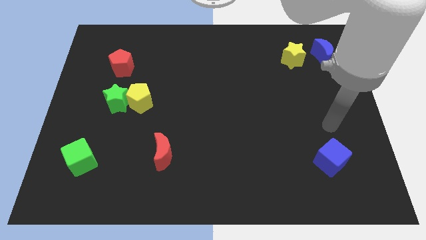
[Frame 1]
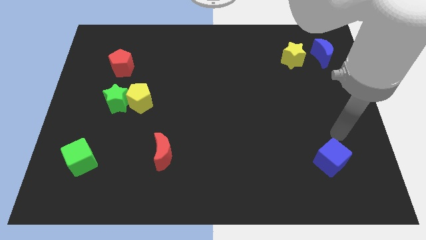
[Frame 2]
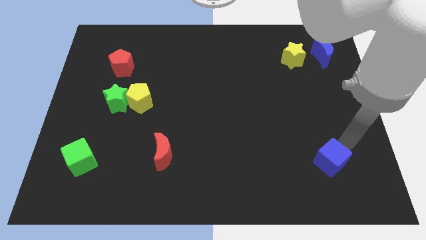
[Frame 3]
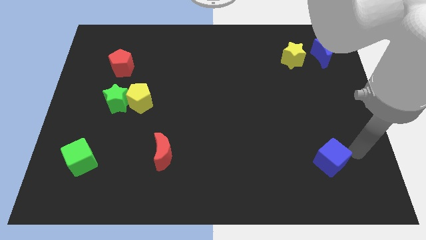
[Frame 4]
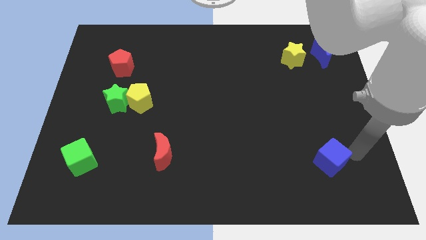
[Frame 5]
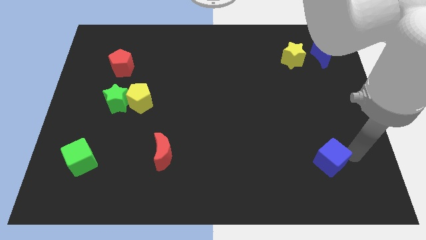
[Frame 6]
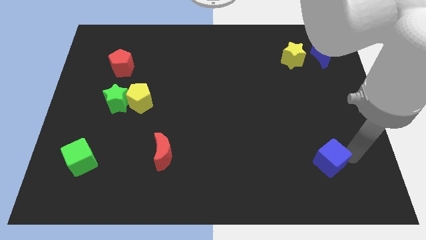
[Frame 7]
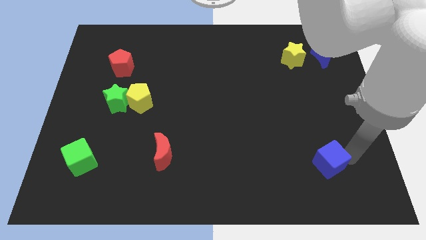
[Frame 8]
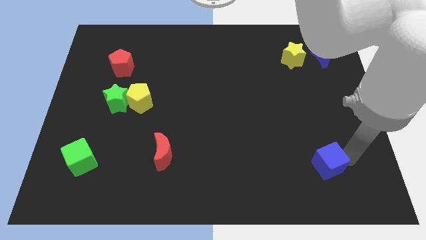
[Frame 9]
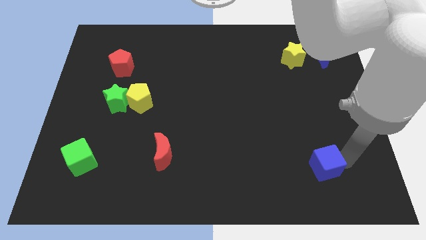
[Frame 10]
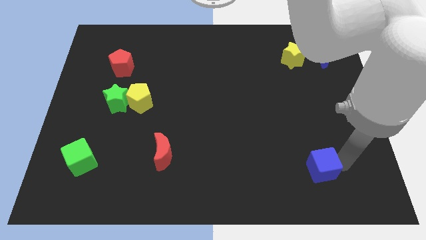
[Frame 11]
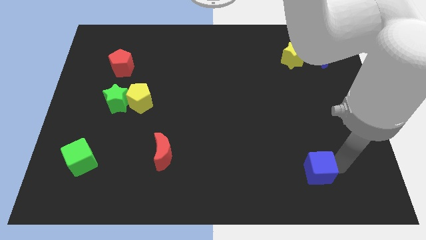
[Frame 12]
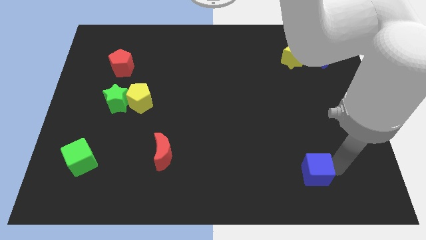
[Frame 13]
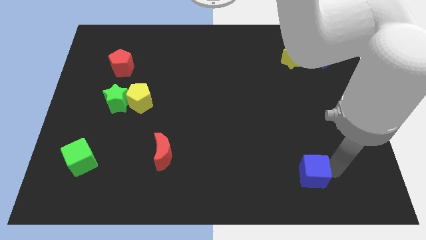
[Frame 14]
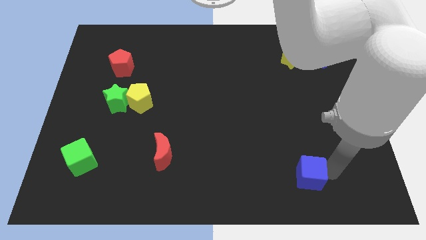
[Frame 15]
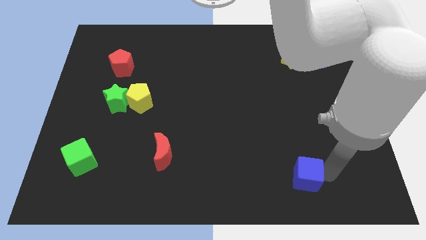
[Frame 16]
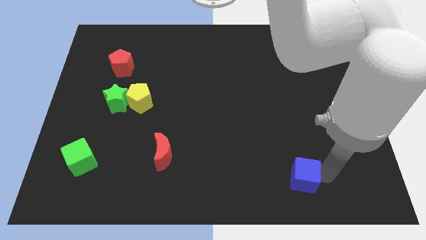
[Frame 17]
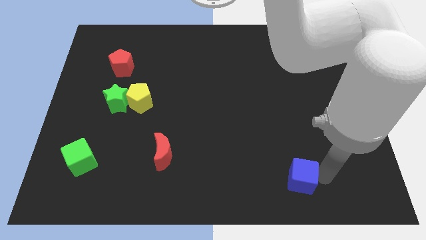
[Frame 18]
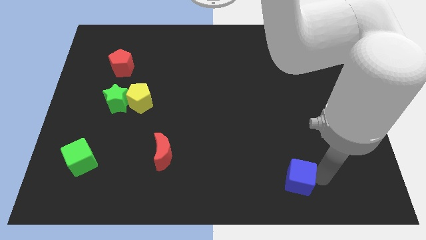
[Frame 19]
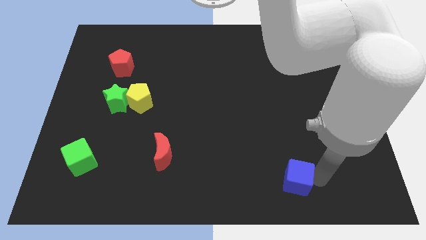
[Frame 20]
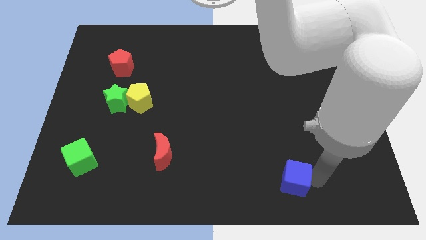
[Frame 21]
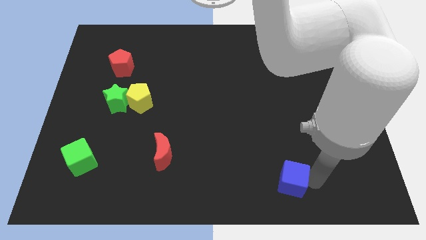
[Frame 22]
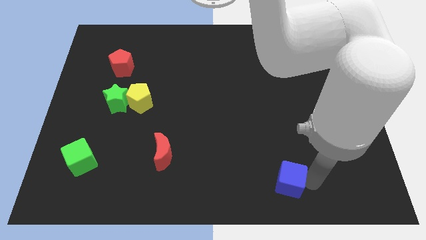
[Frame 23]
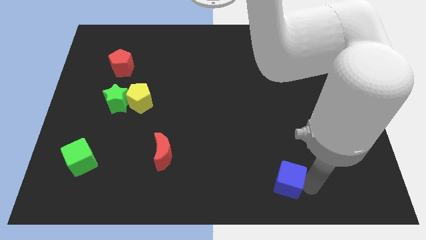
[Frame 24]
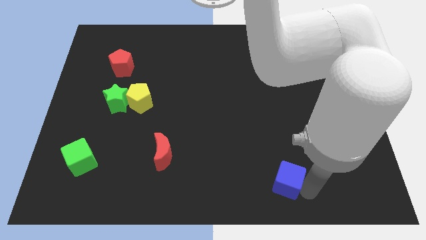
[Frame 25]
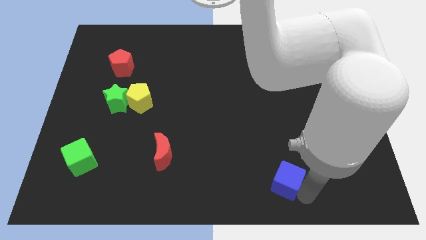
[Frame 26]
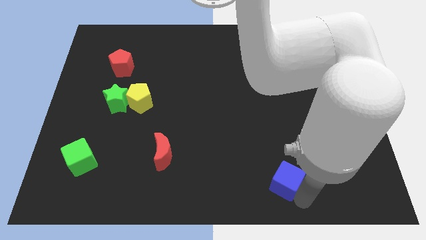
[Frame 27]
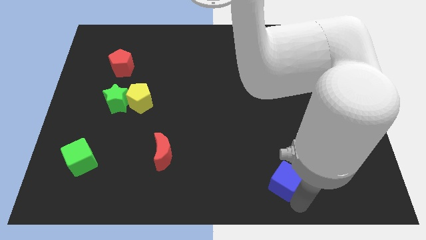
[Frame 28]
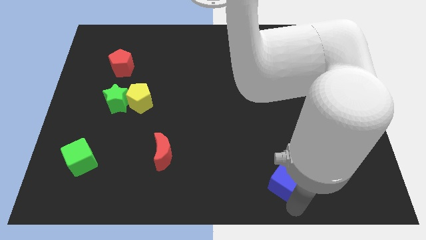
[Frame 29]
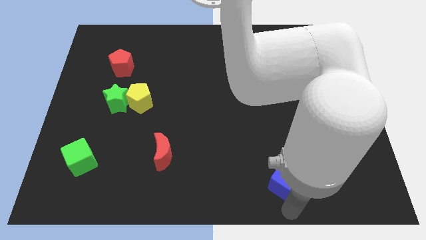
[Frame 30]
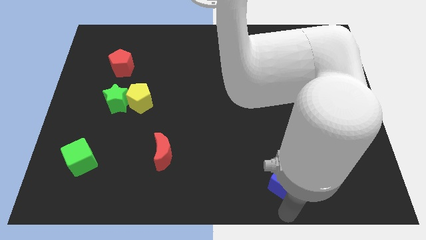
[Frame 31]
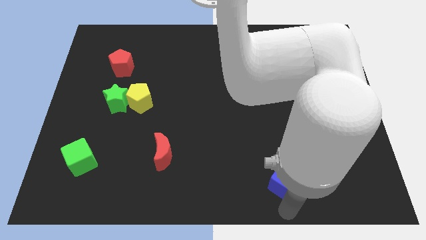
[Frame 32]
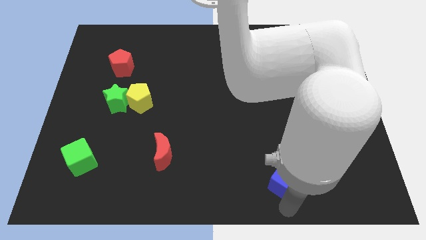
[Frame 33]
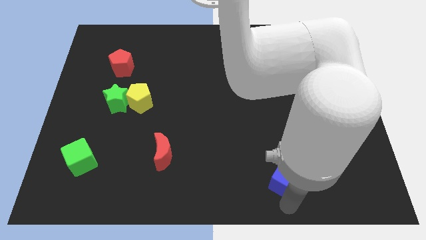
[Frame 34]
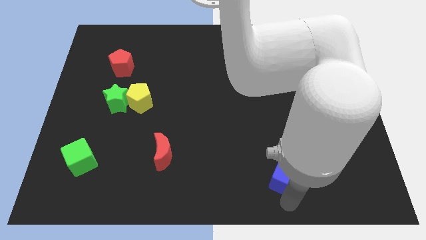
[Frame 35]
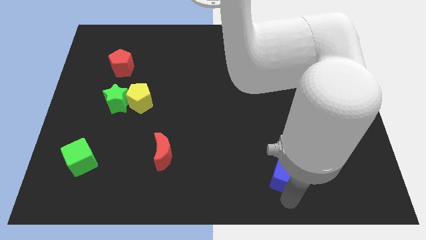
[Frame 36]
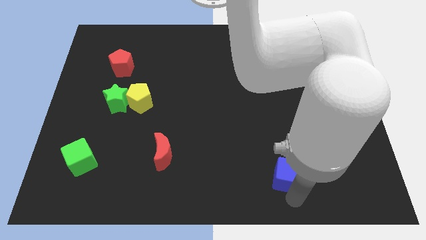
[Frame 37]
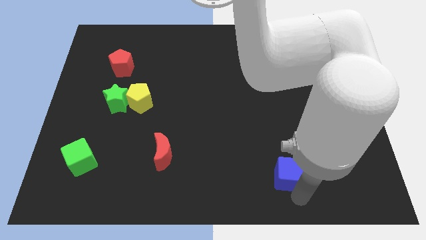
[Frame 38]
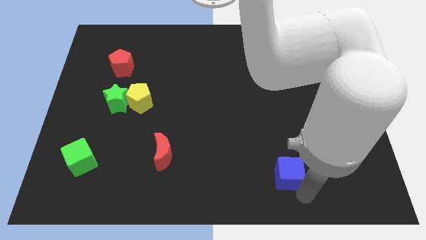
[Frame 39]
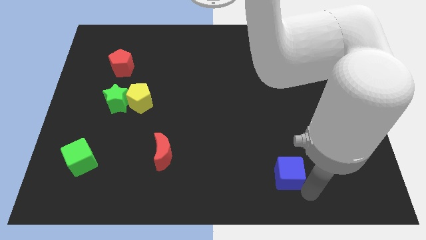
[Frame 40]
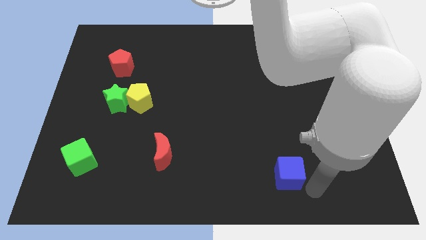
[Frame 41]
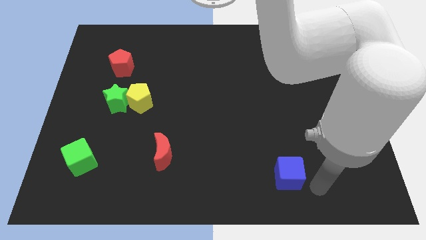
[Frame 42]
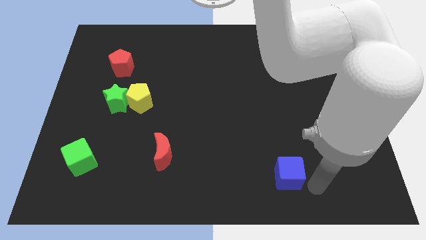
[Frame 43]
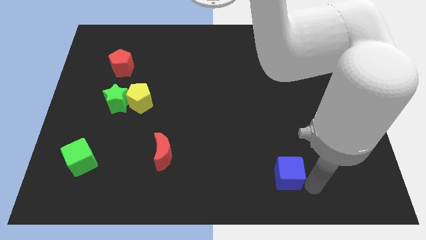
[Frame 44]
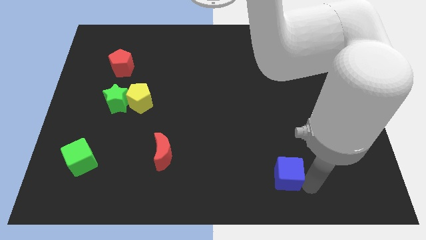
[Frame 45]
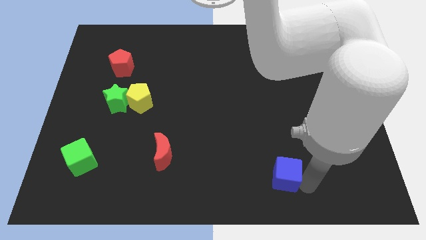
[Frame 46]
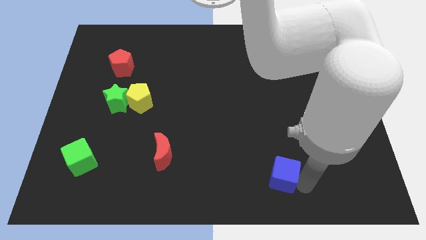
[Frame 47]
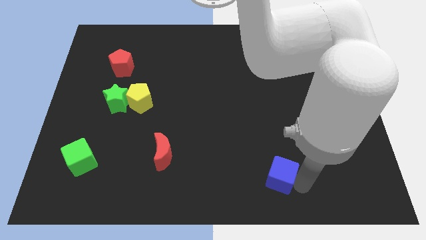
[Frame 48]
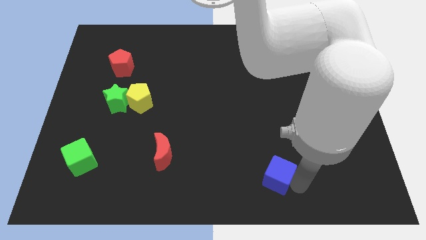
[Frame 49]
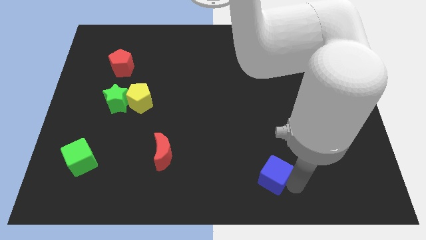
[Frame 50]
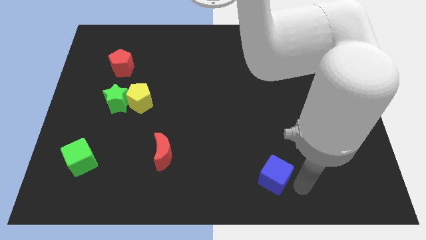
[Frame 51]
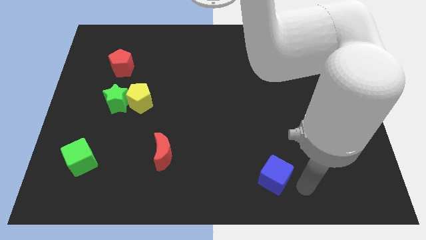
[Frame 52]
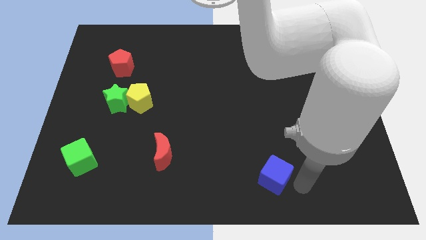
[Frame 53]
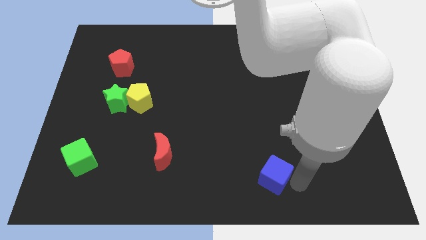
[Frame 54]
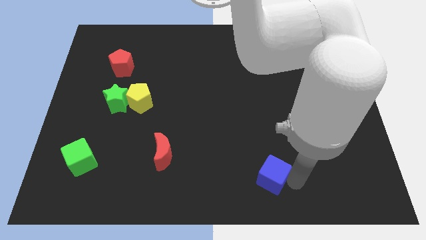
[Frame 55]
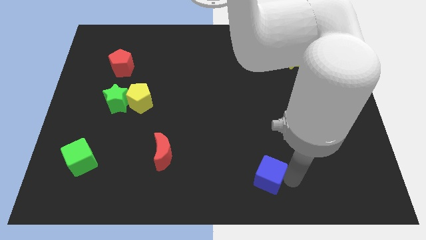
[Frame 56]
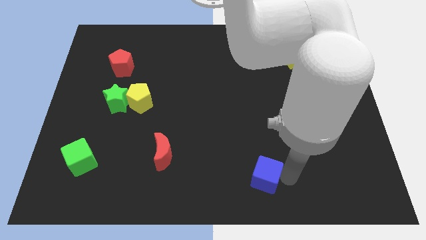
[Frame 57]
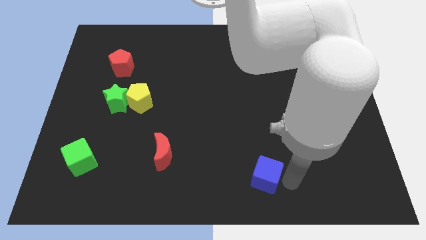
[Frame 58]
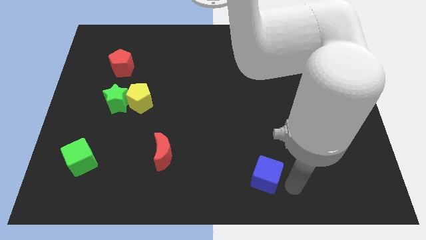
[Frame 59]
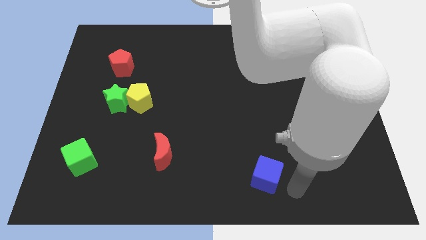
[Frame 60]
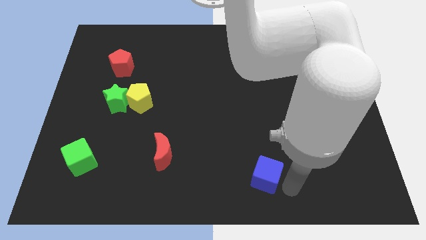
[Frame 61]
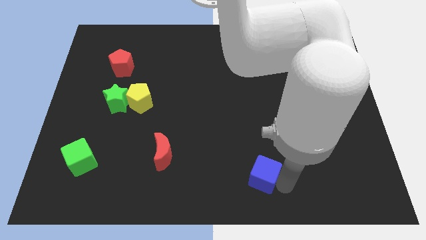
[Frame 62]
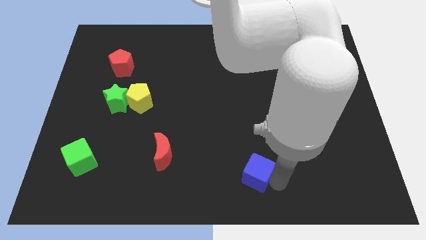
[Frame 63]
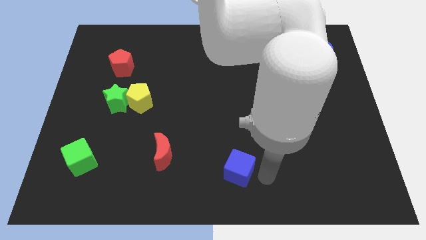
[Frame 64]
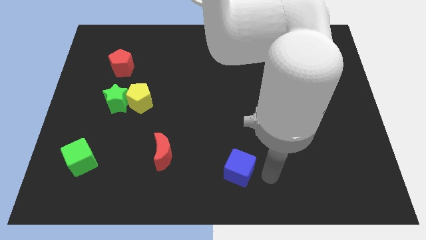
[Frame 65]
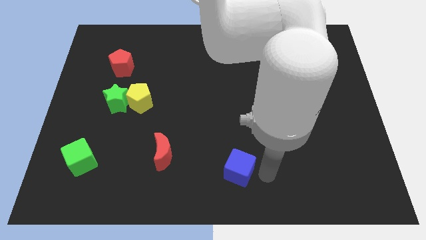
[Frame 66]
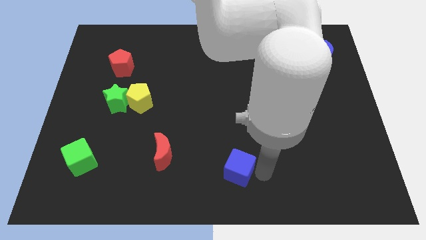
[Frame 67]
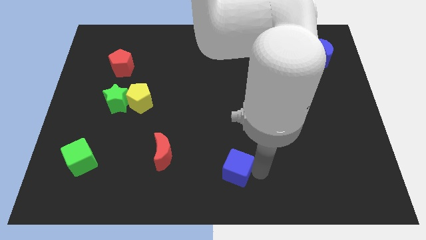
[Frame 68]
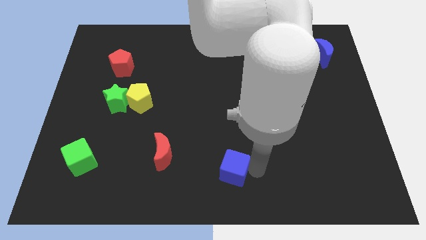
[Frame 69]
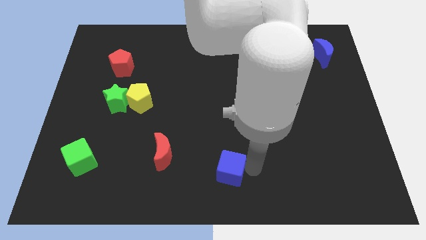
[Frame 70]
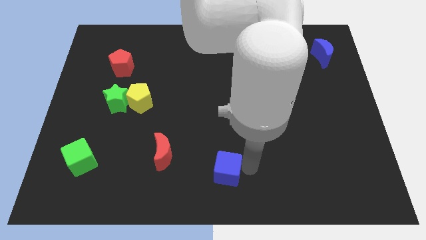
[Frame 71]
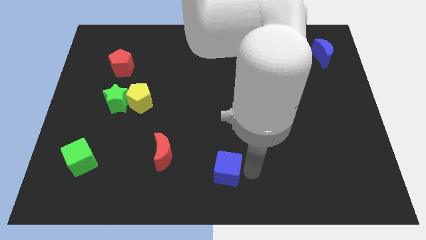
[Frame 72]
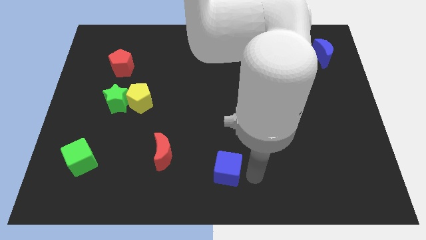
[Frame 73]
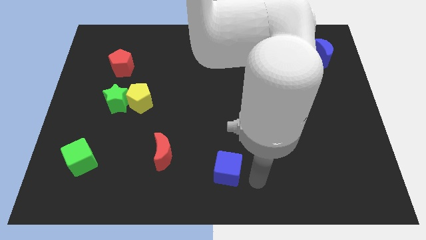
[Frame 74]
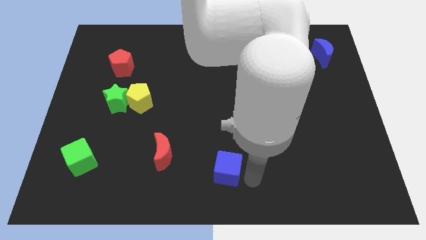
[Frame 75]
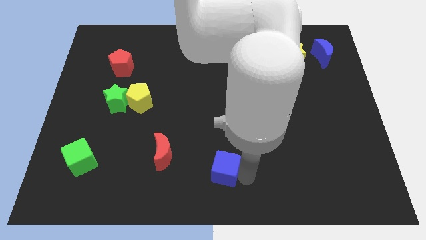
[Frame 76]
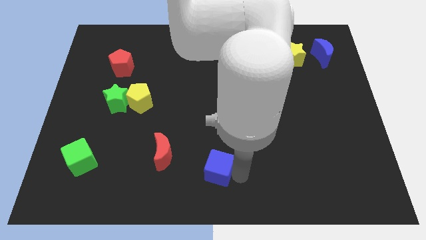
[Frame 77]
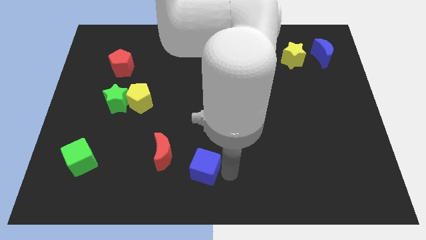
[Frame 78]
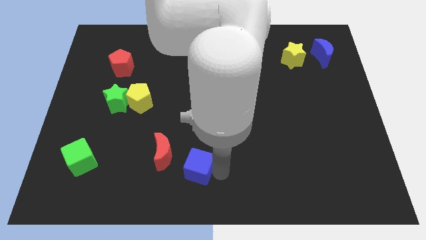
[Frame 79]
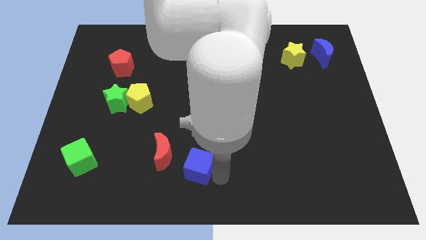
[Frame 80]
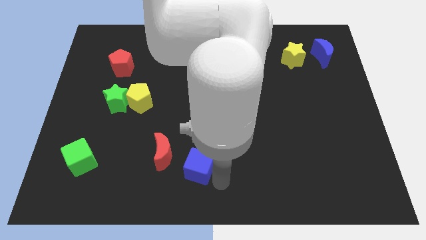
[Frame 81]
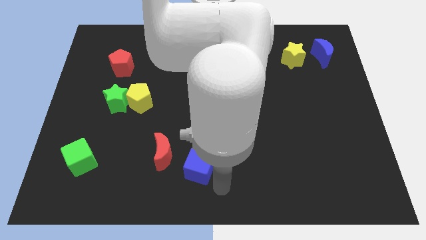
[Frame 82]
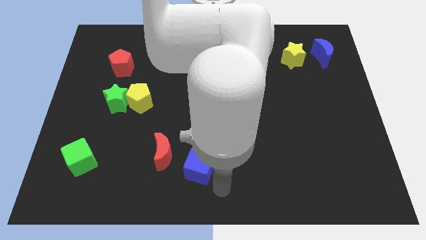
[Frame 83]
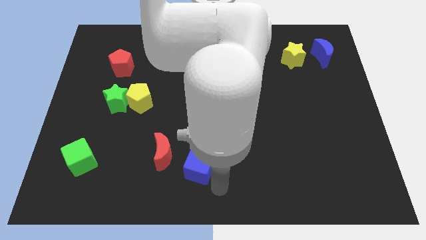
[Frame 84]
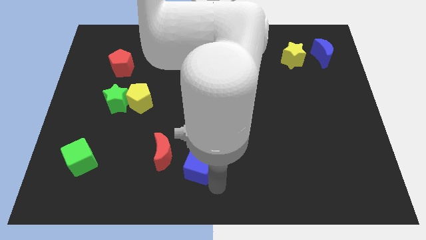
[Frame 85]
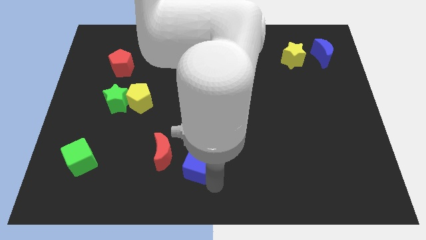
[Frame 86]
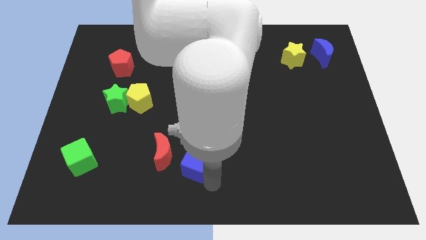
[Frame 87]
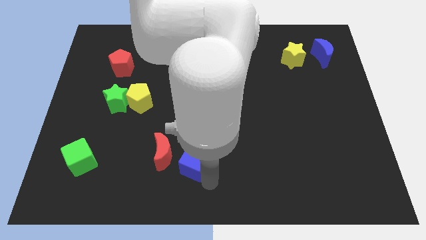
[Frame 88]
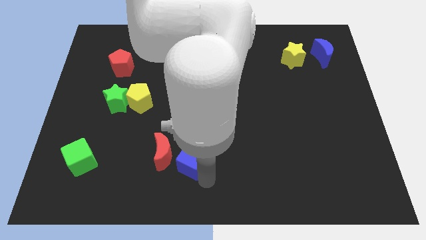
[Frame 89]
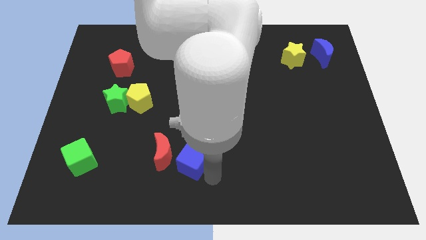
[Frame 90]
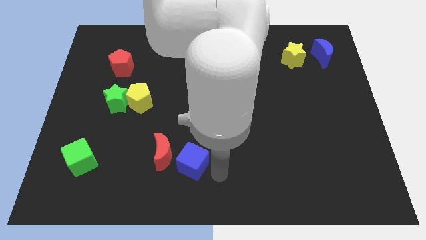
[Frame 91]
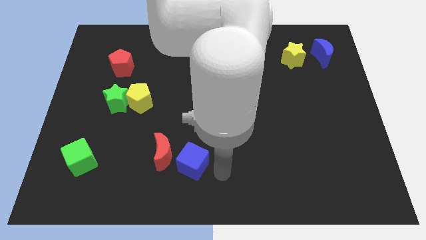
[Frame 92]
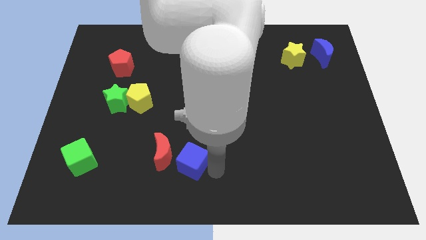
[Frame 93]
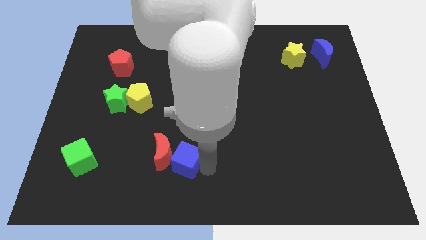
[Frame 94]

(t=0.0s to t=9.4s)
move the blue cube next to the red moon
